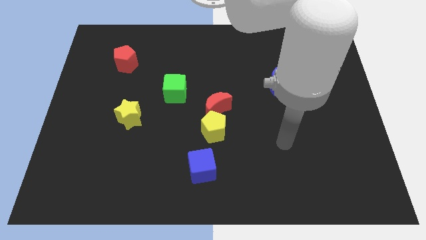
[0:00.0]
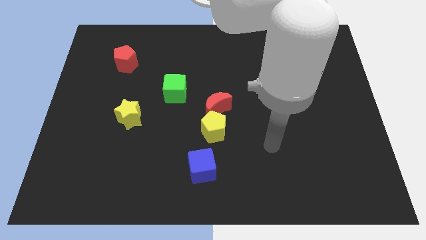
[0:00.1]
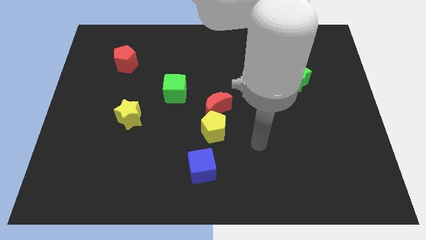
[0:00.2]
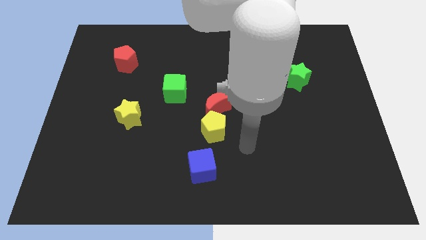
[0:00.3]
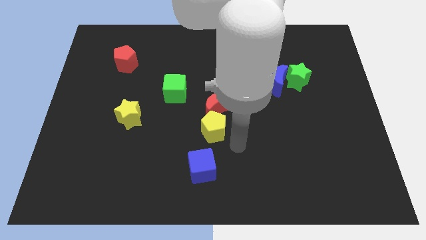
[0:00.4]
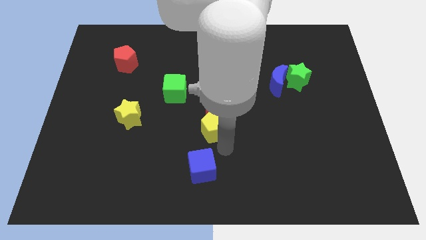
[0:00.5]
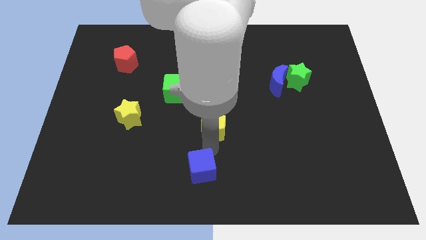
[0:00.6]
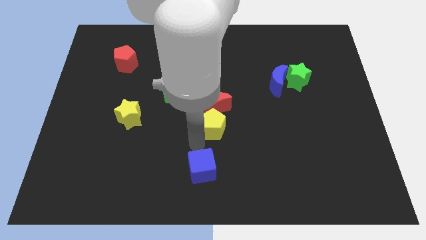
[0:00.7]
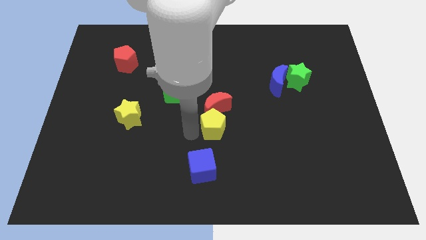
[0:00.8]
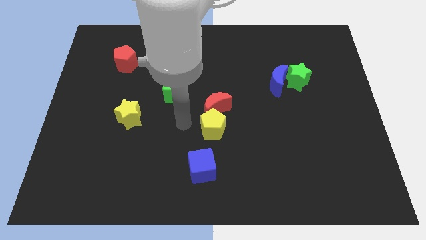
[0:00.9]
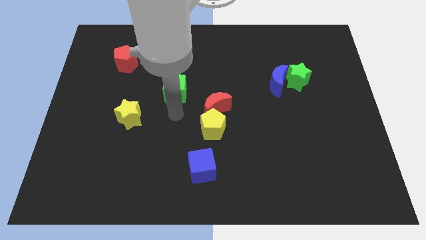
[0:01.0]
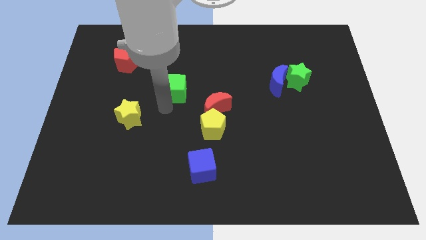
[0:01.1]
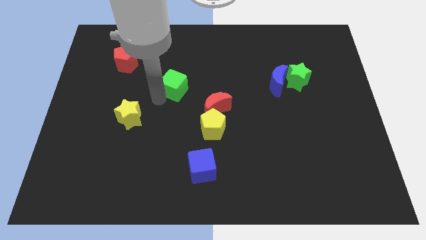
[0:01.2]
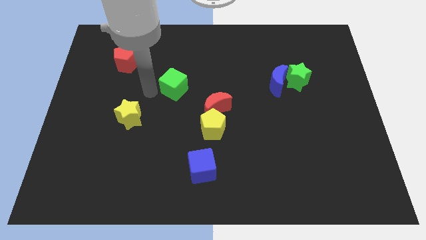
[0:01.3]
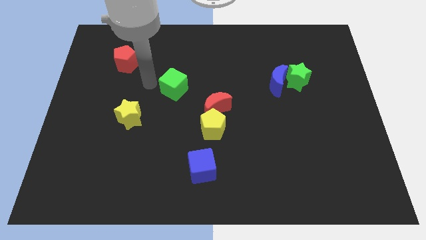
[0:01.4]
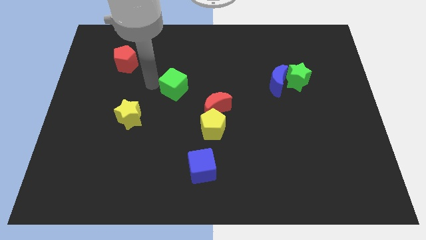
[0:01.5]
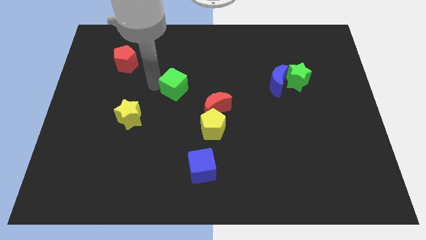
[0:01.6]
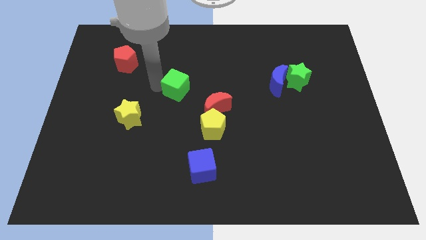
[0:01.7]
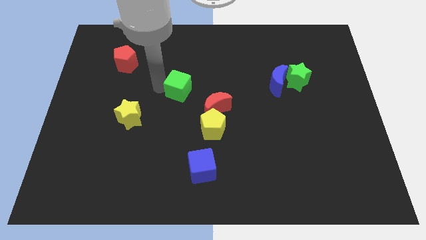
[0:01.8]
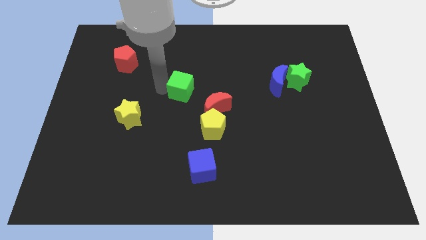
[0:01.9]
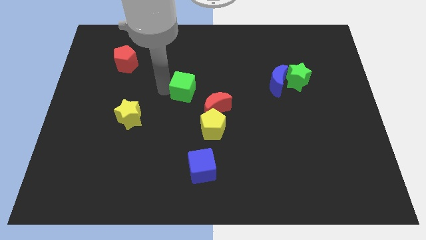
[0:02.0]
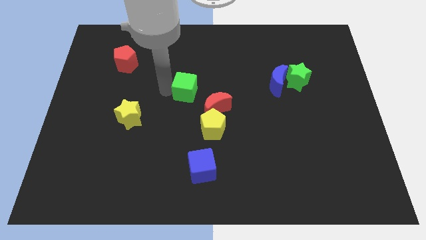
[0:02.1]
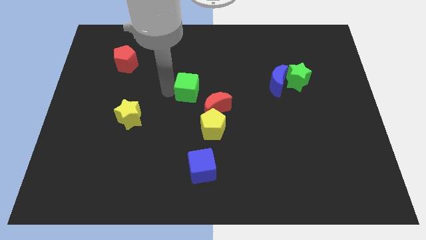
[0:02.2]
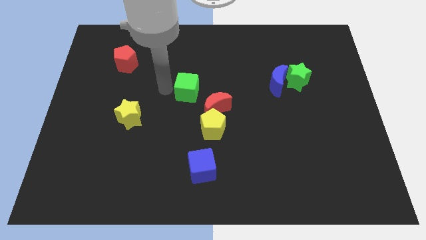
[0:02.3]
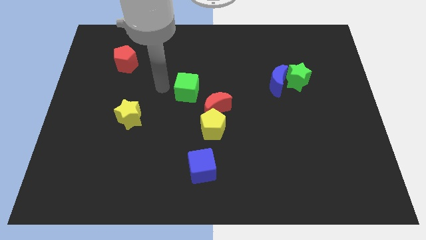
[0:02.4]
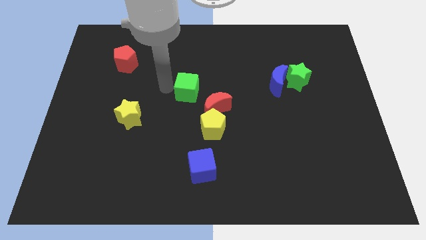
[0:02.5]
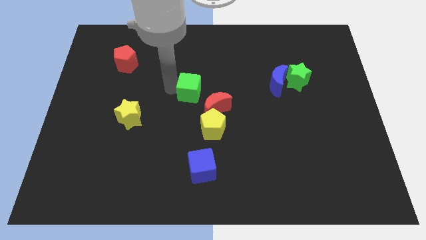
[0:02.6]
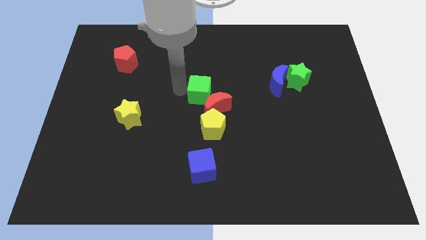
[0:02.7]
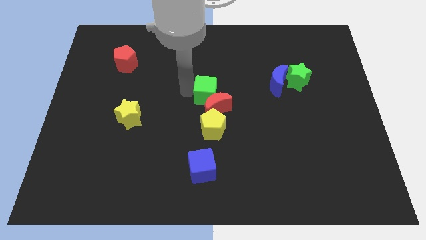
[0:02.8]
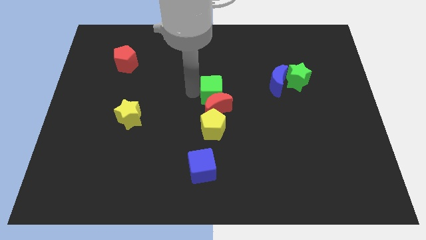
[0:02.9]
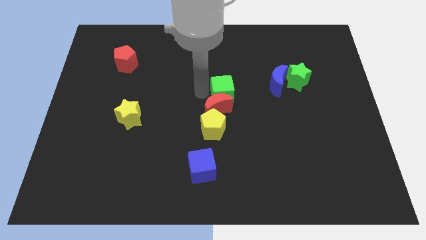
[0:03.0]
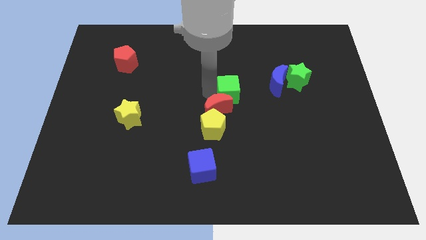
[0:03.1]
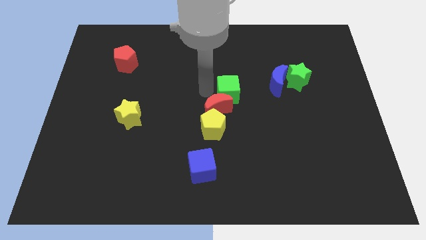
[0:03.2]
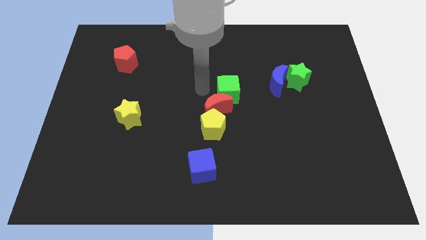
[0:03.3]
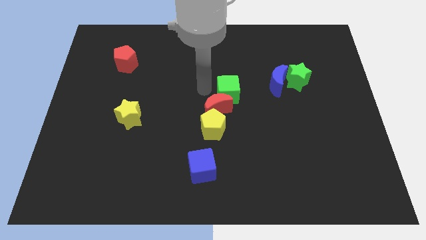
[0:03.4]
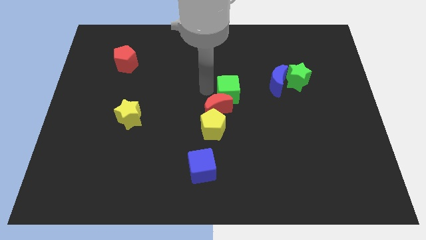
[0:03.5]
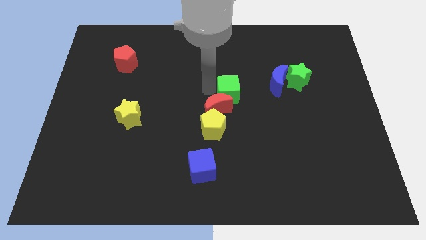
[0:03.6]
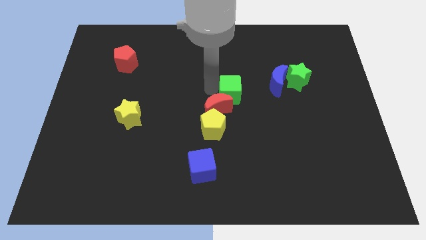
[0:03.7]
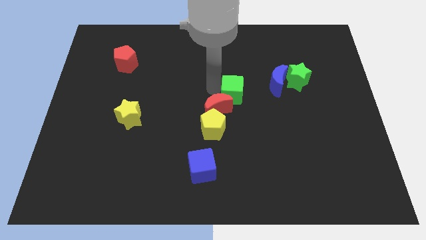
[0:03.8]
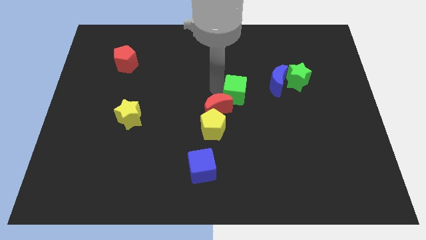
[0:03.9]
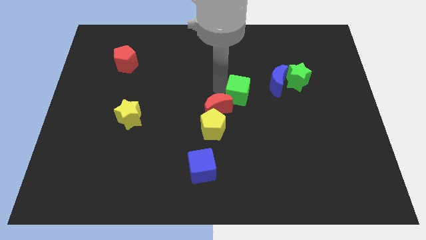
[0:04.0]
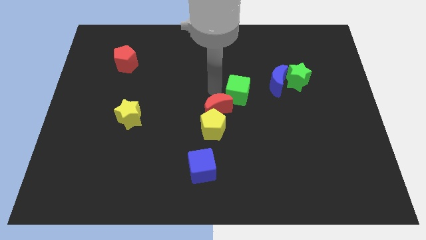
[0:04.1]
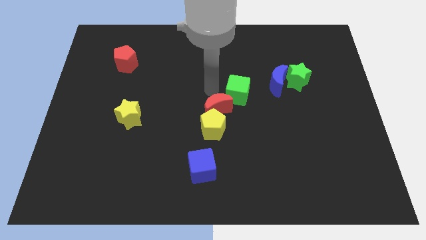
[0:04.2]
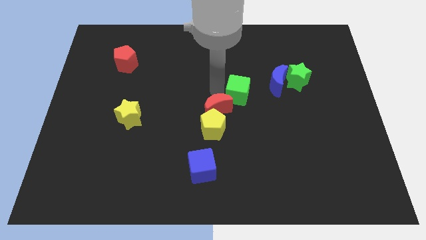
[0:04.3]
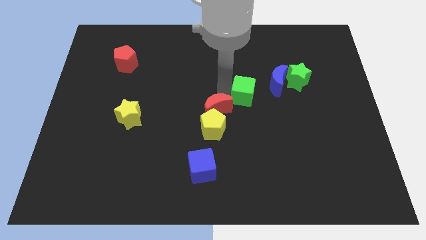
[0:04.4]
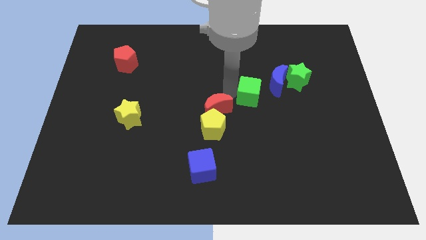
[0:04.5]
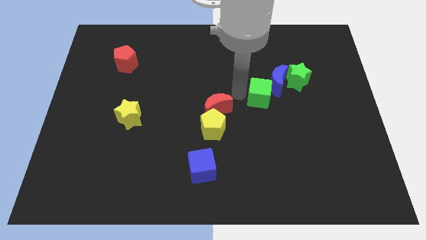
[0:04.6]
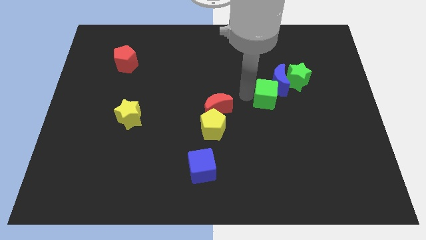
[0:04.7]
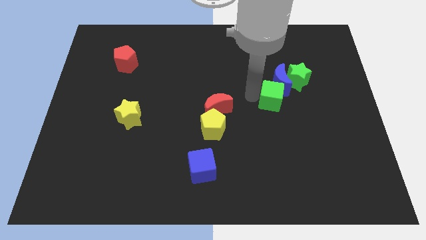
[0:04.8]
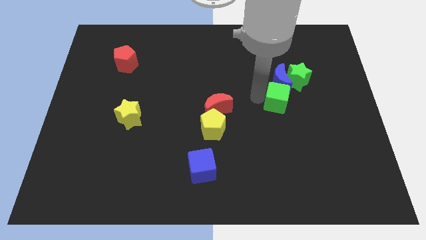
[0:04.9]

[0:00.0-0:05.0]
push the green cube diagonally down and to the right of the blue moon

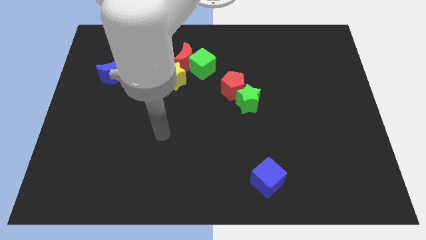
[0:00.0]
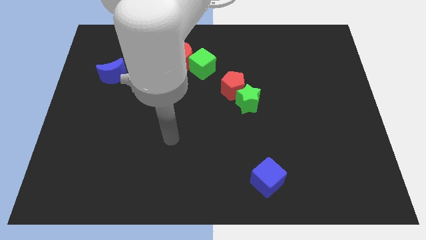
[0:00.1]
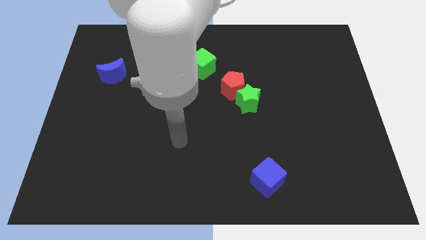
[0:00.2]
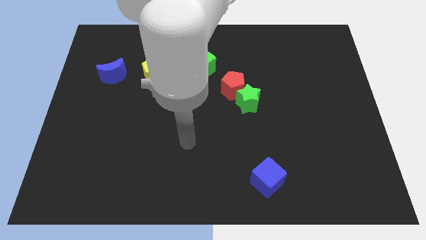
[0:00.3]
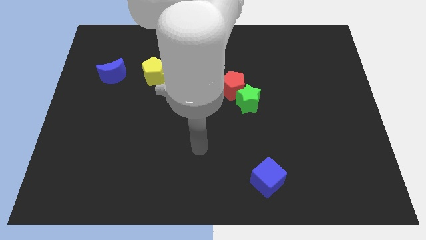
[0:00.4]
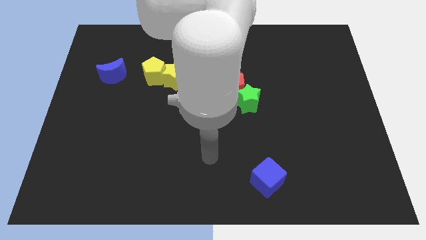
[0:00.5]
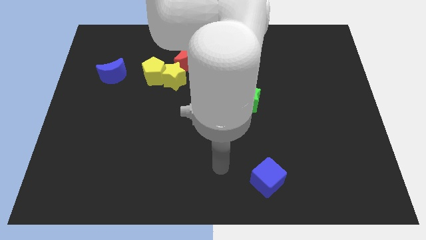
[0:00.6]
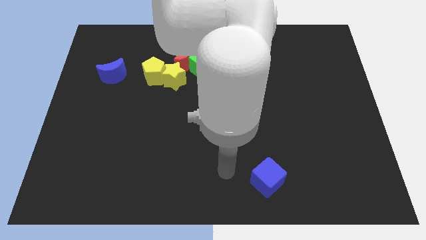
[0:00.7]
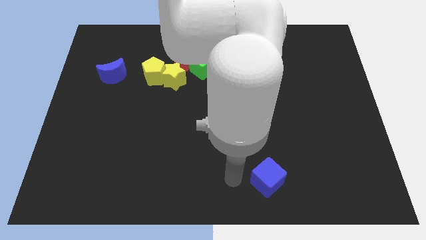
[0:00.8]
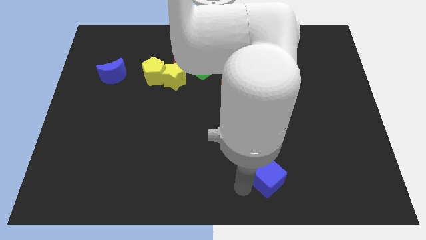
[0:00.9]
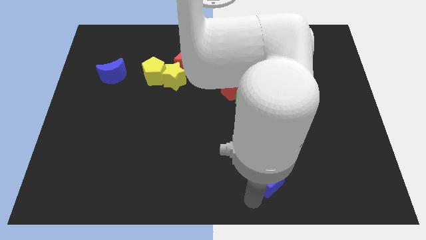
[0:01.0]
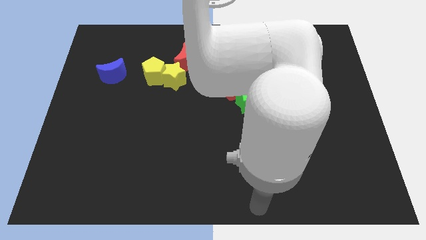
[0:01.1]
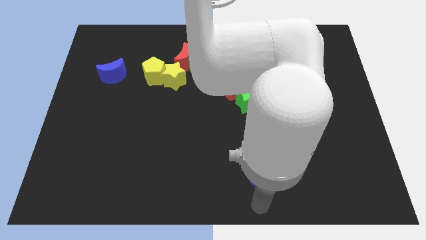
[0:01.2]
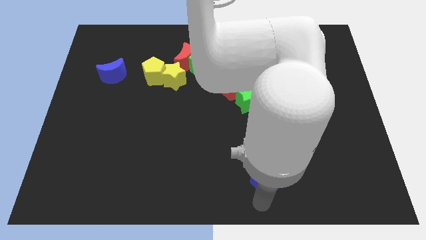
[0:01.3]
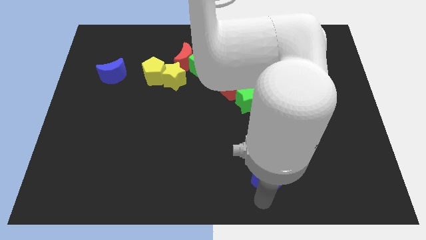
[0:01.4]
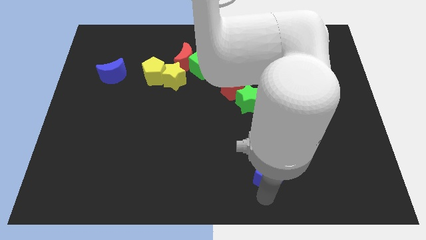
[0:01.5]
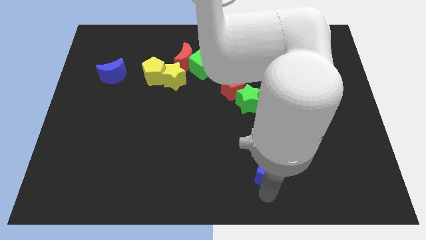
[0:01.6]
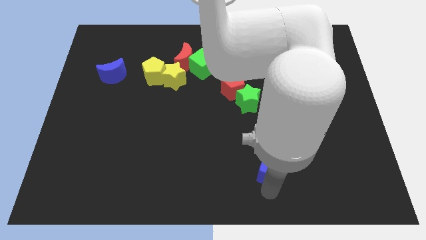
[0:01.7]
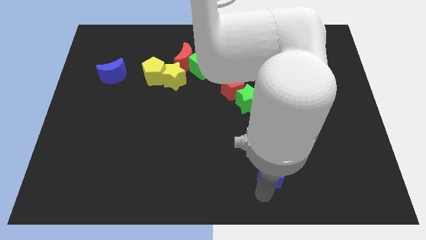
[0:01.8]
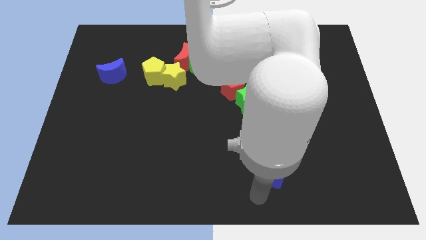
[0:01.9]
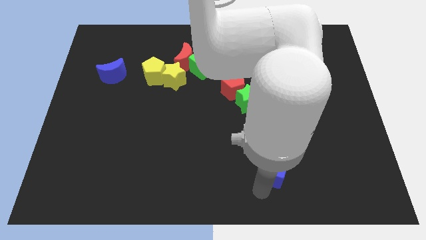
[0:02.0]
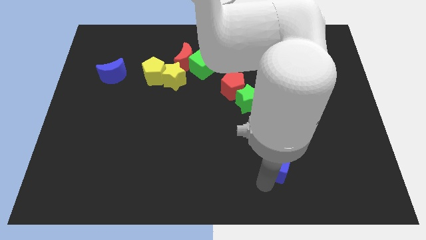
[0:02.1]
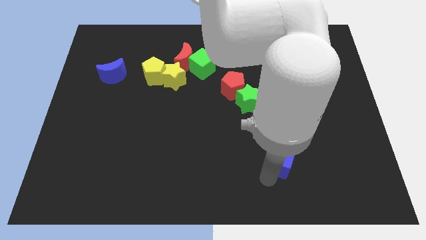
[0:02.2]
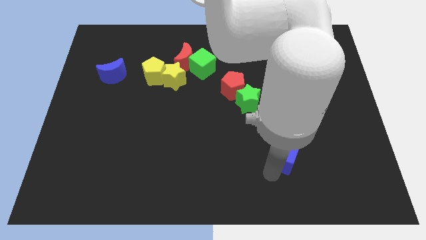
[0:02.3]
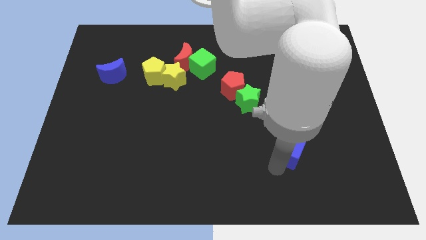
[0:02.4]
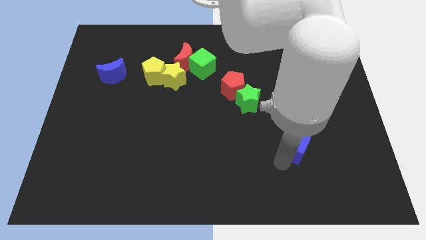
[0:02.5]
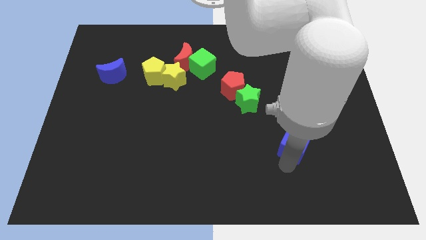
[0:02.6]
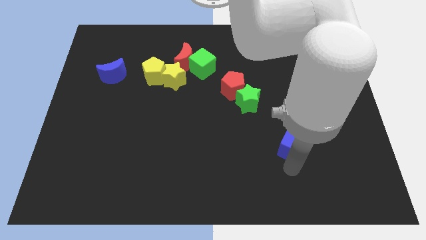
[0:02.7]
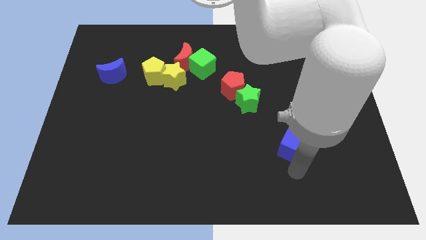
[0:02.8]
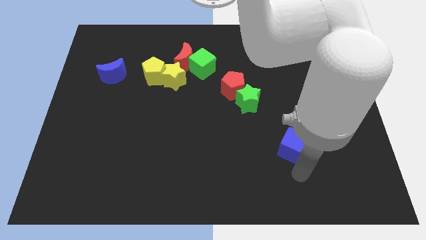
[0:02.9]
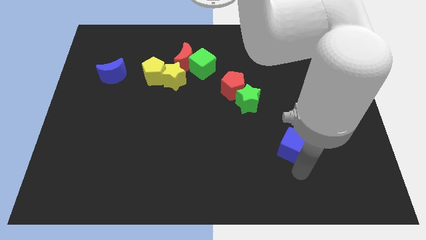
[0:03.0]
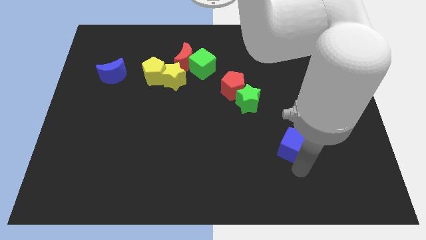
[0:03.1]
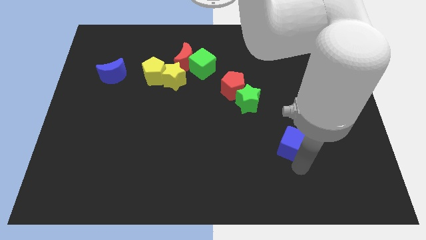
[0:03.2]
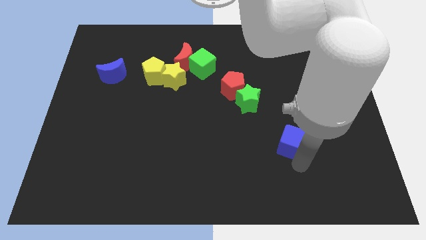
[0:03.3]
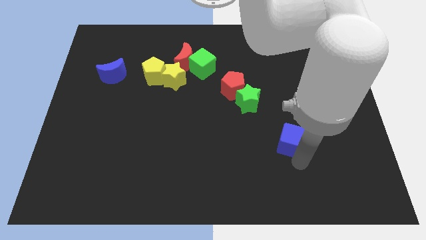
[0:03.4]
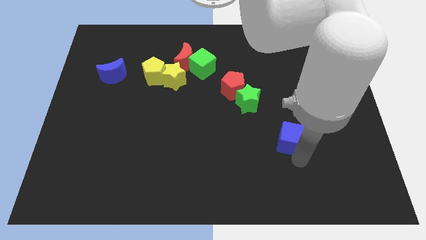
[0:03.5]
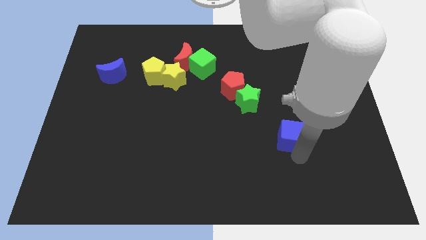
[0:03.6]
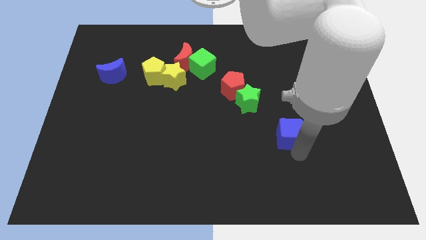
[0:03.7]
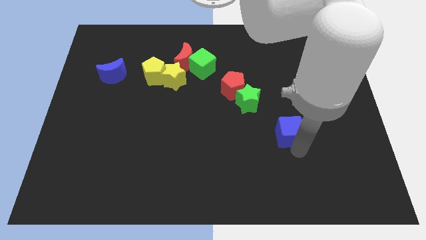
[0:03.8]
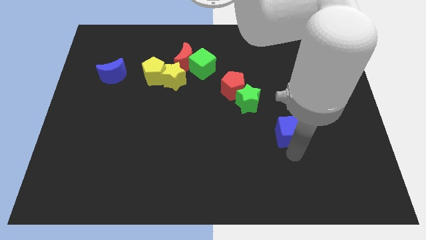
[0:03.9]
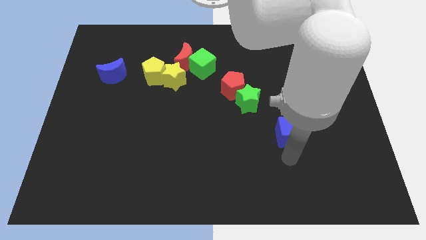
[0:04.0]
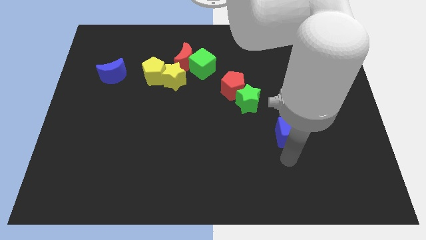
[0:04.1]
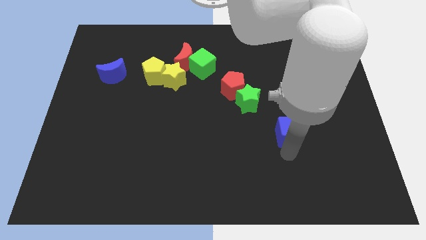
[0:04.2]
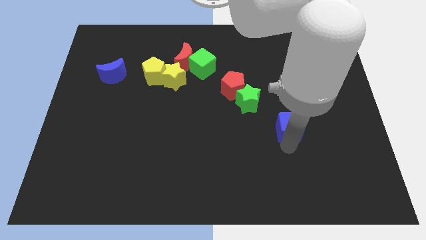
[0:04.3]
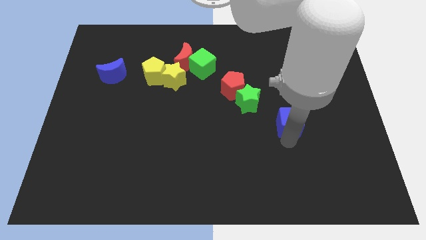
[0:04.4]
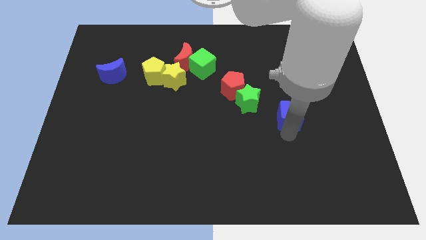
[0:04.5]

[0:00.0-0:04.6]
push the blue cube to the right of the green star
